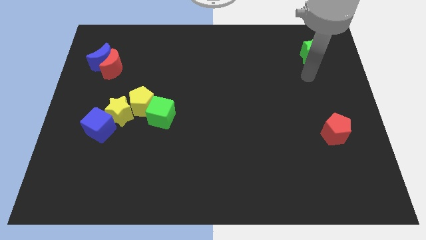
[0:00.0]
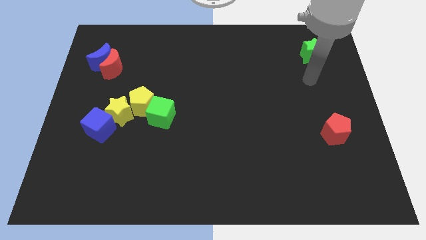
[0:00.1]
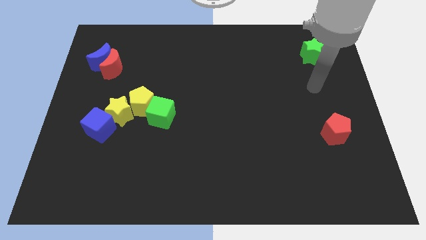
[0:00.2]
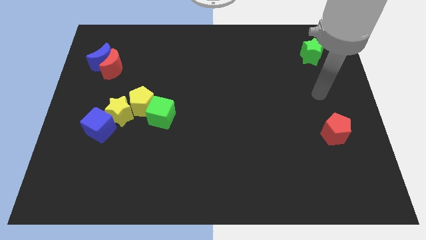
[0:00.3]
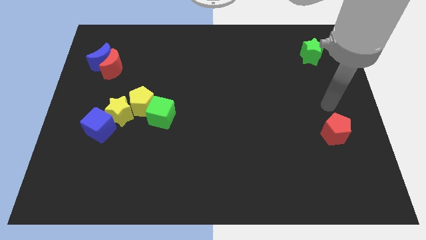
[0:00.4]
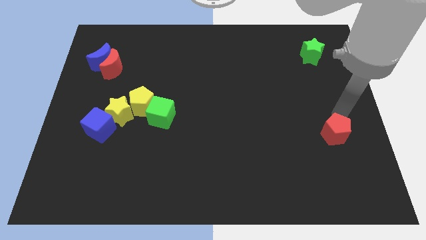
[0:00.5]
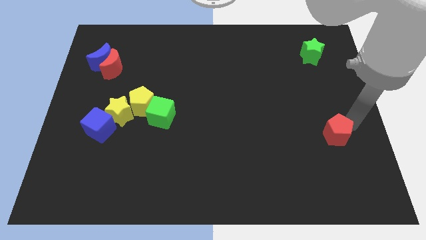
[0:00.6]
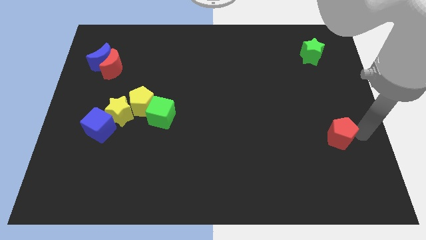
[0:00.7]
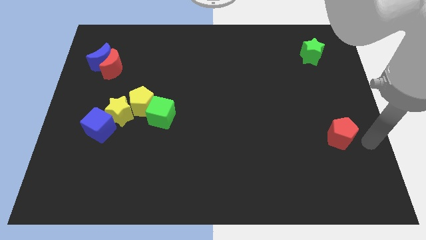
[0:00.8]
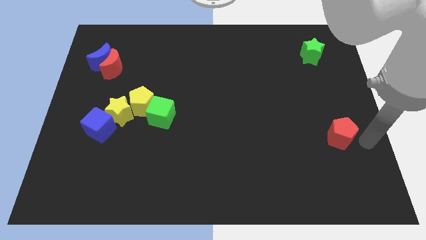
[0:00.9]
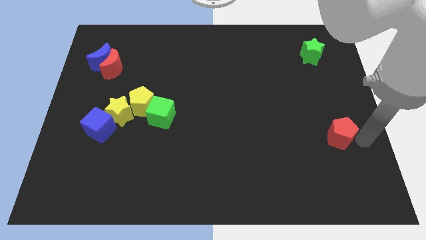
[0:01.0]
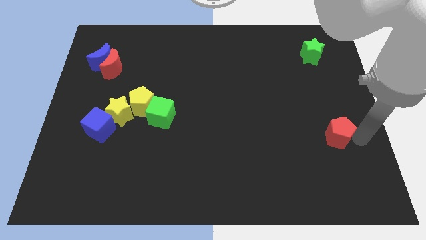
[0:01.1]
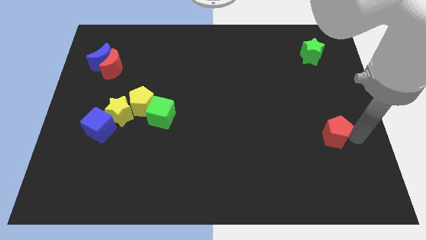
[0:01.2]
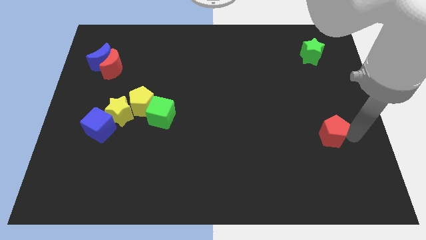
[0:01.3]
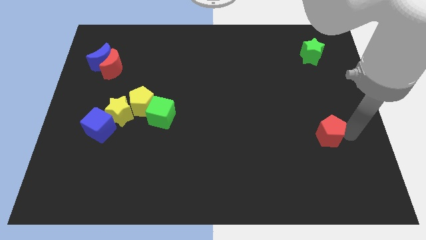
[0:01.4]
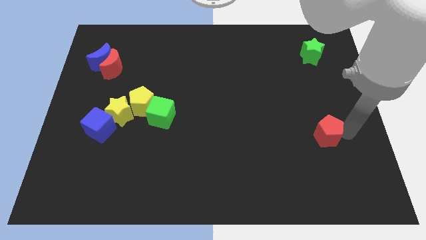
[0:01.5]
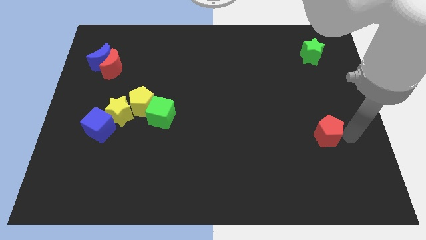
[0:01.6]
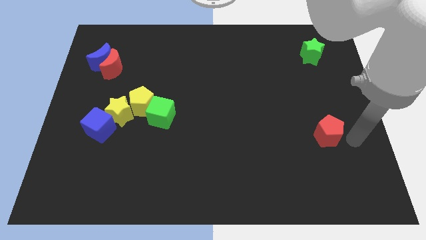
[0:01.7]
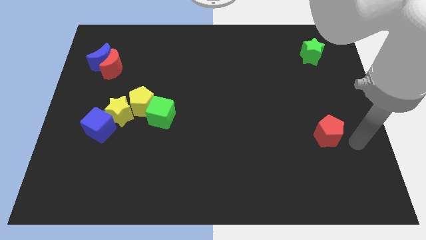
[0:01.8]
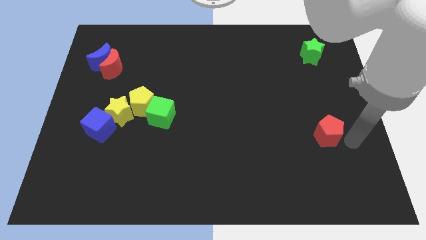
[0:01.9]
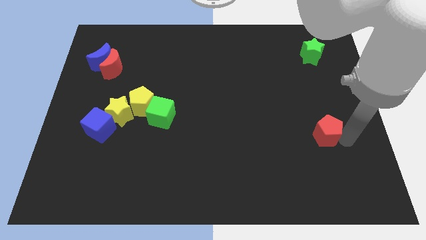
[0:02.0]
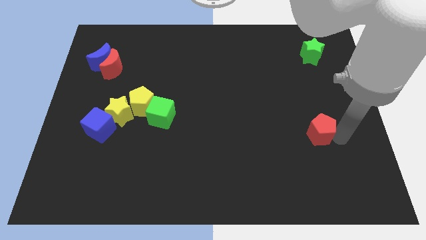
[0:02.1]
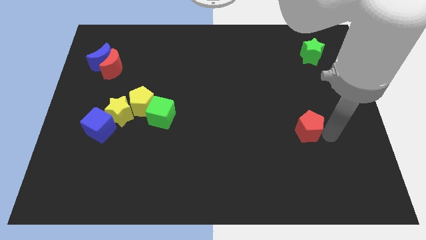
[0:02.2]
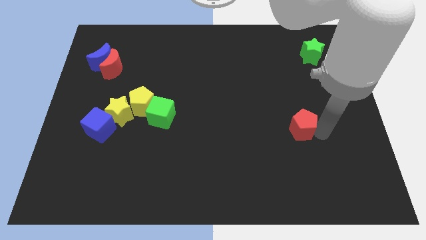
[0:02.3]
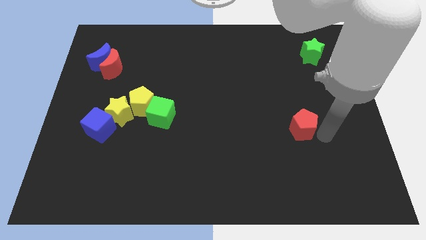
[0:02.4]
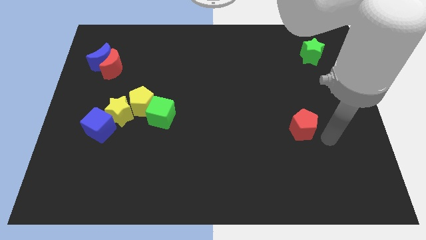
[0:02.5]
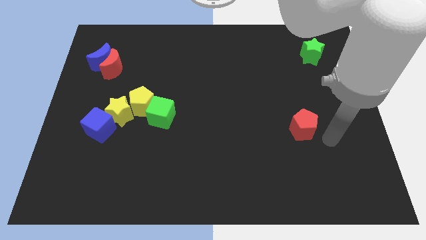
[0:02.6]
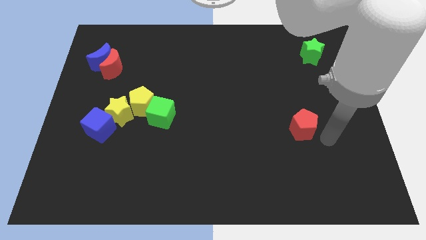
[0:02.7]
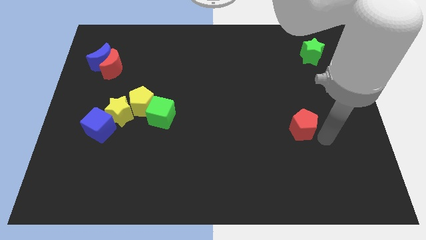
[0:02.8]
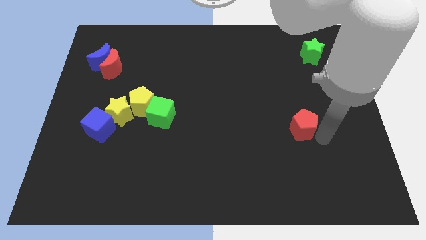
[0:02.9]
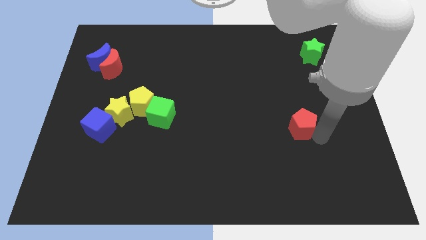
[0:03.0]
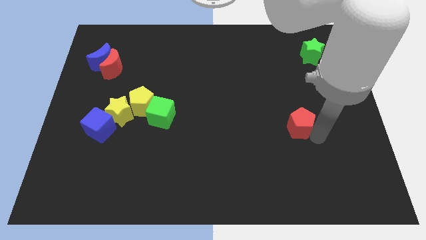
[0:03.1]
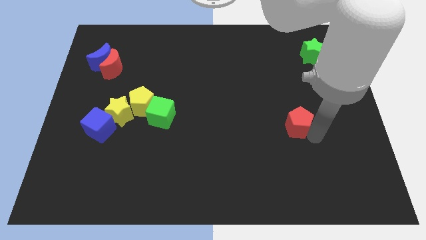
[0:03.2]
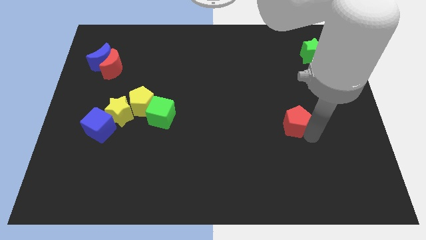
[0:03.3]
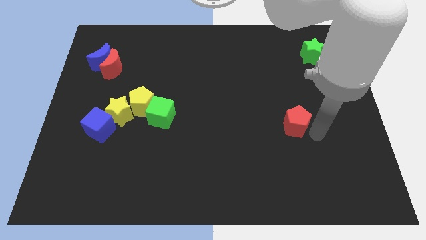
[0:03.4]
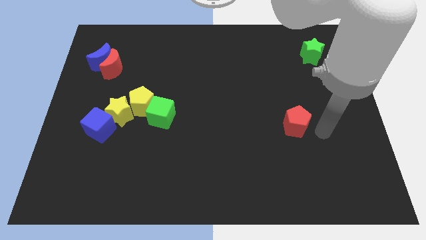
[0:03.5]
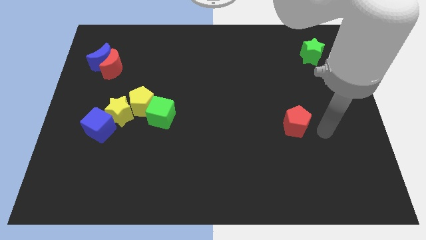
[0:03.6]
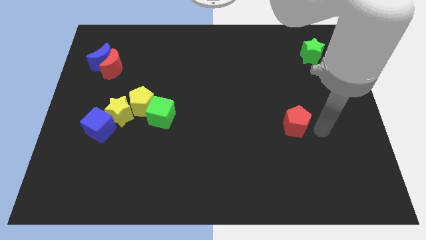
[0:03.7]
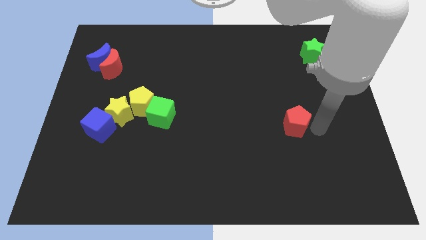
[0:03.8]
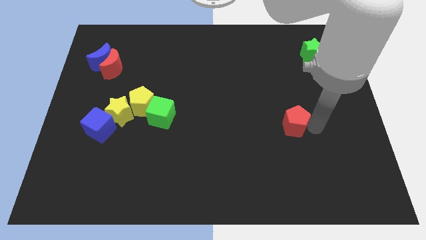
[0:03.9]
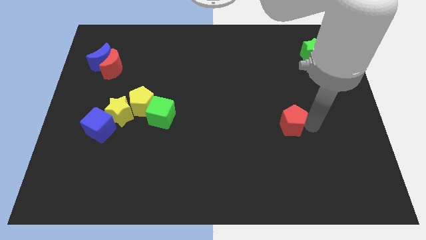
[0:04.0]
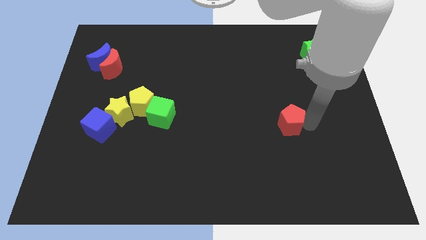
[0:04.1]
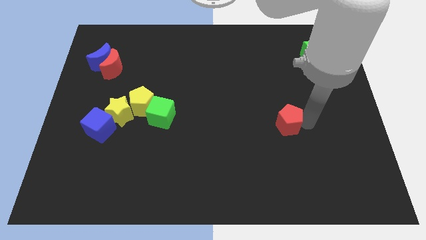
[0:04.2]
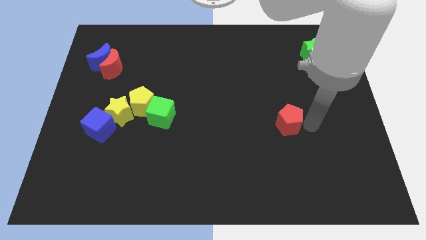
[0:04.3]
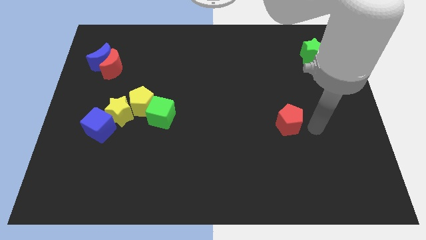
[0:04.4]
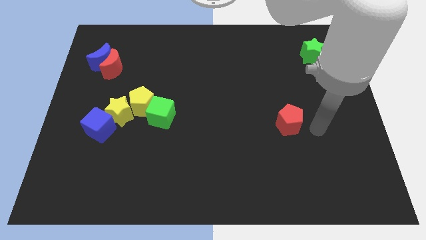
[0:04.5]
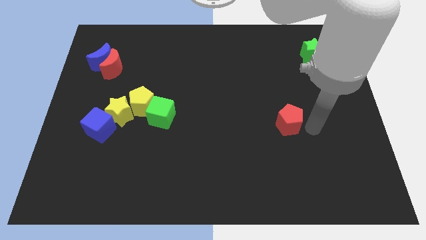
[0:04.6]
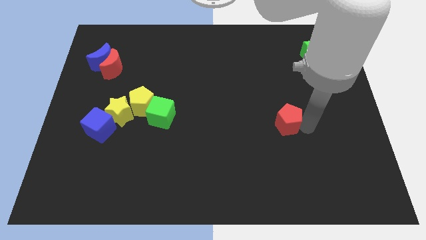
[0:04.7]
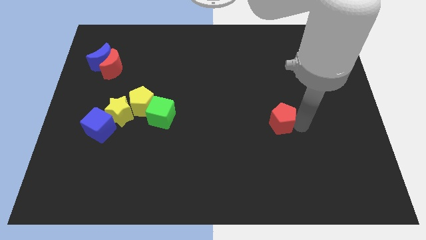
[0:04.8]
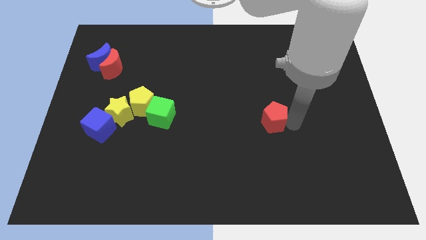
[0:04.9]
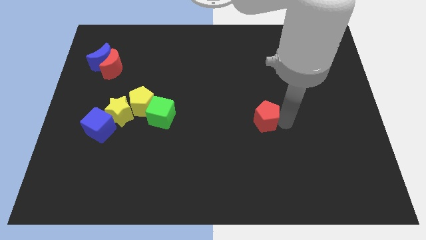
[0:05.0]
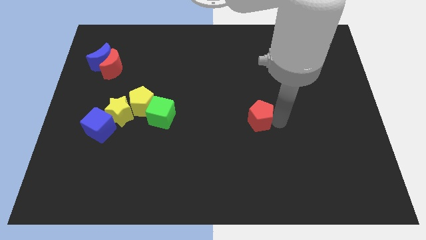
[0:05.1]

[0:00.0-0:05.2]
put the red pentagon to the center of the board

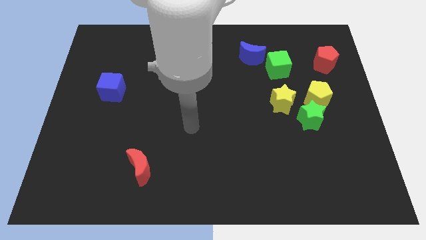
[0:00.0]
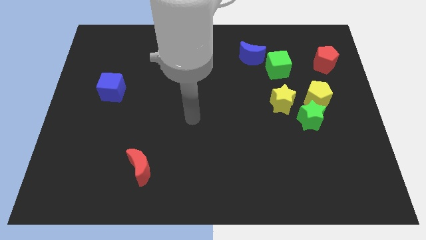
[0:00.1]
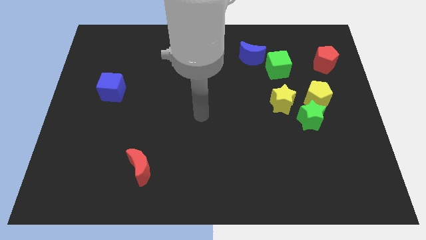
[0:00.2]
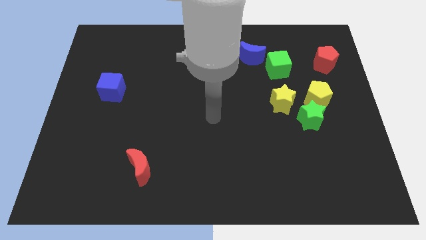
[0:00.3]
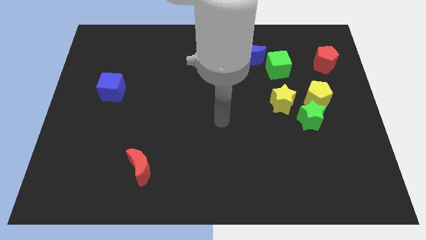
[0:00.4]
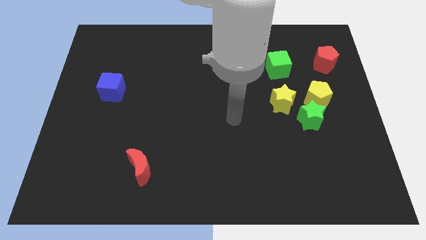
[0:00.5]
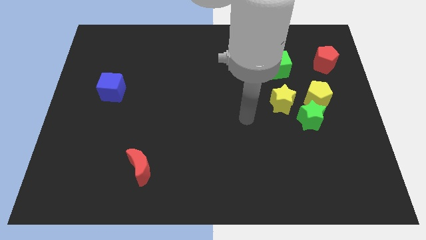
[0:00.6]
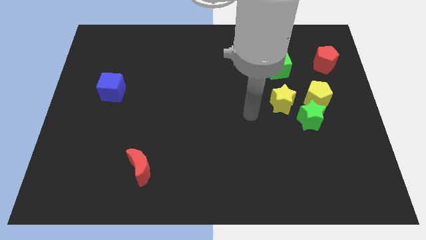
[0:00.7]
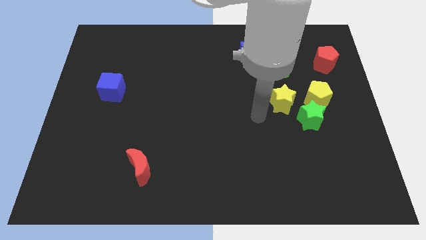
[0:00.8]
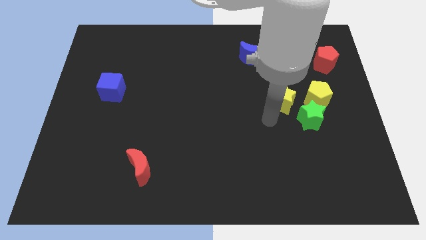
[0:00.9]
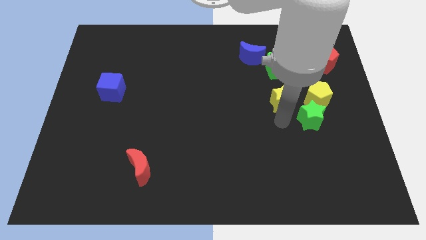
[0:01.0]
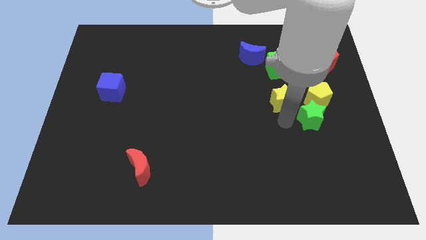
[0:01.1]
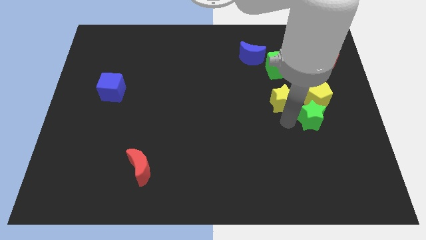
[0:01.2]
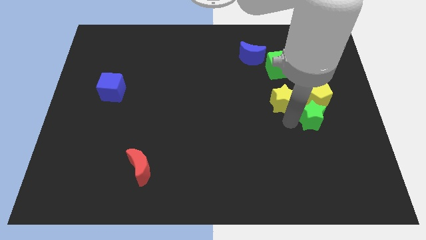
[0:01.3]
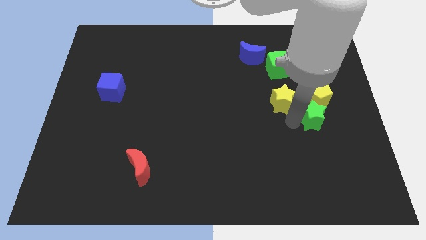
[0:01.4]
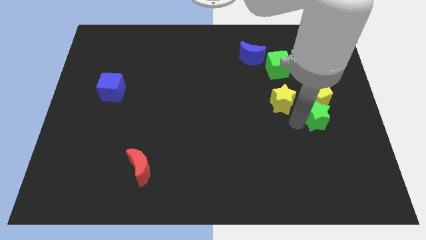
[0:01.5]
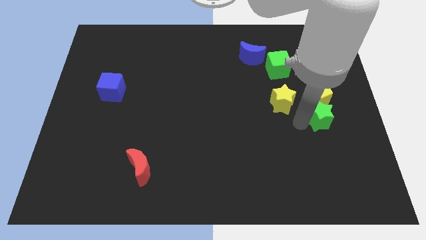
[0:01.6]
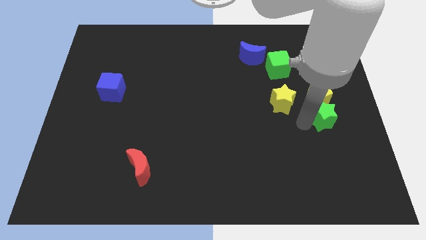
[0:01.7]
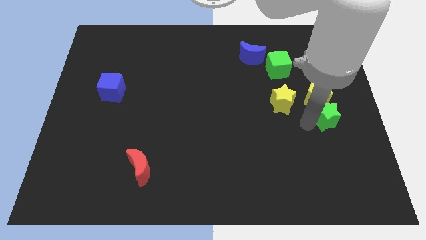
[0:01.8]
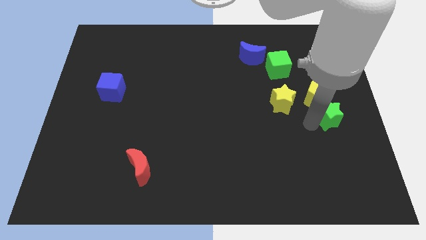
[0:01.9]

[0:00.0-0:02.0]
put the green star to the right side
